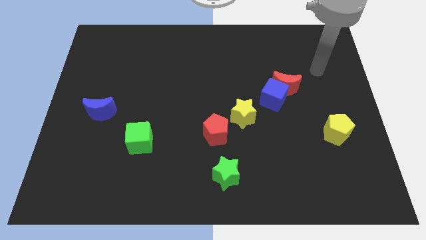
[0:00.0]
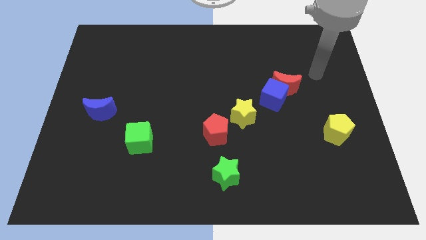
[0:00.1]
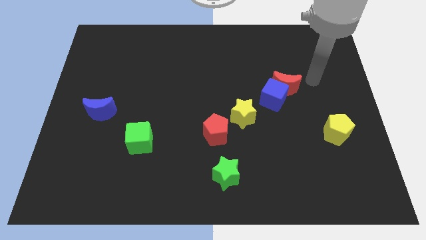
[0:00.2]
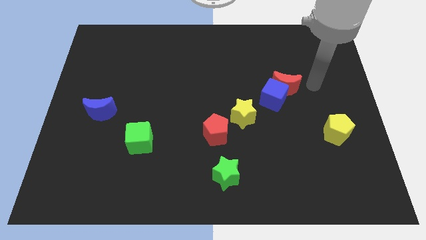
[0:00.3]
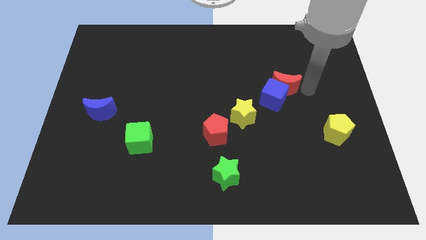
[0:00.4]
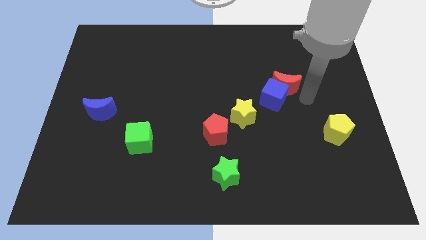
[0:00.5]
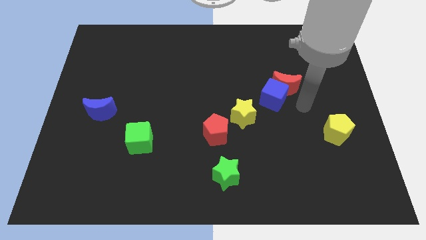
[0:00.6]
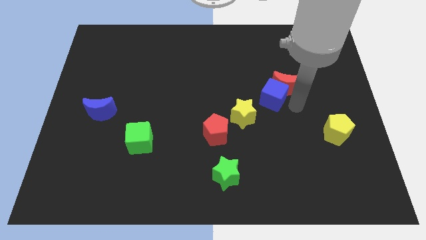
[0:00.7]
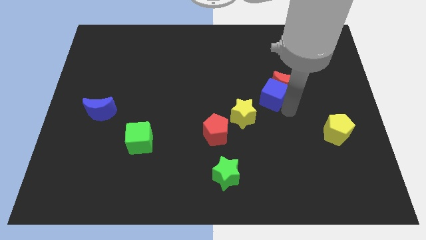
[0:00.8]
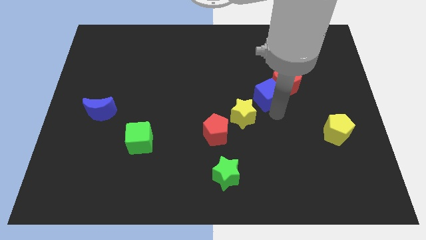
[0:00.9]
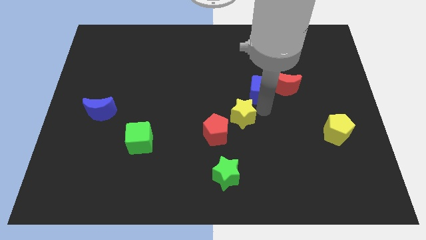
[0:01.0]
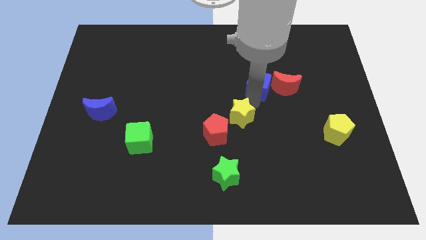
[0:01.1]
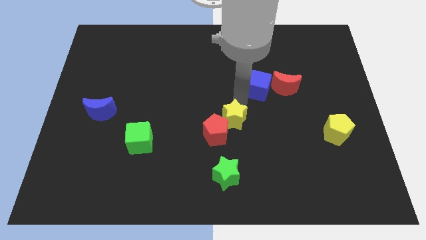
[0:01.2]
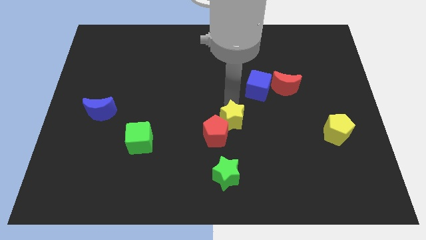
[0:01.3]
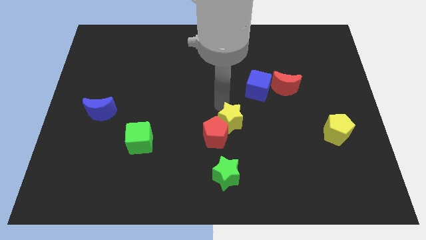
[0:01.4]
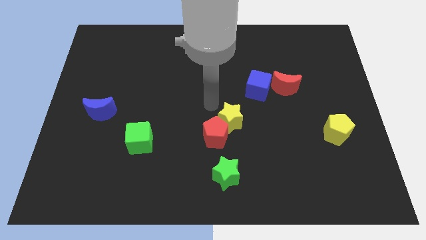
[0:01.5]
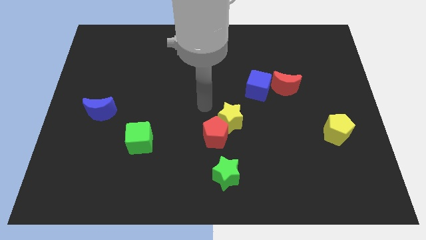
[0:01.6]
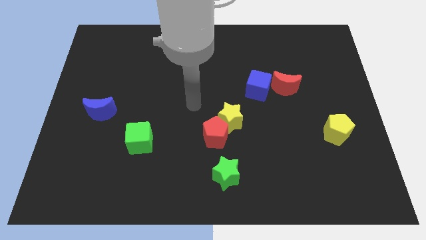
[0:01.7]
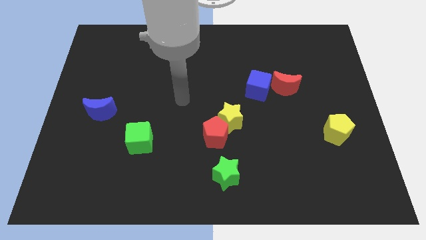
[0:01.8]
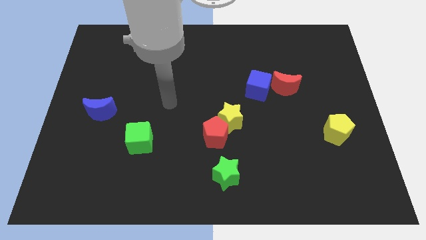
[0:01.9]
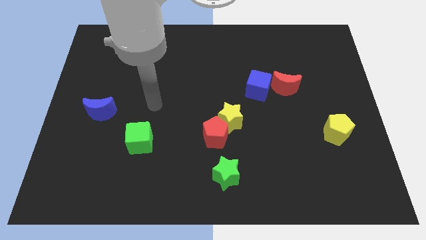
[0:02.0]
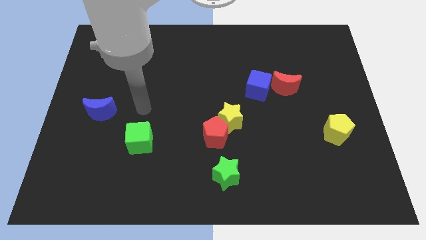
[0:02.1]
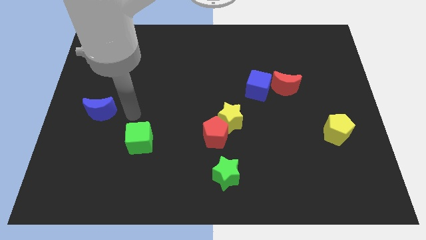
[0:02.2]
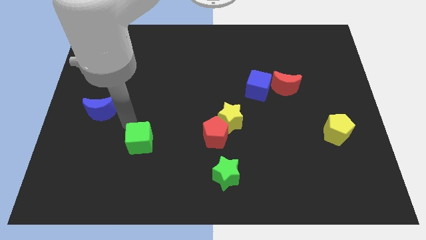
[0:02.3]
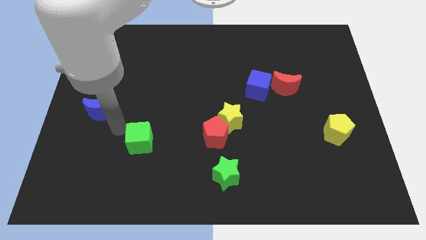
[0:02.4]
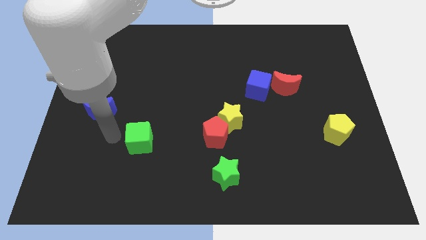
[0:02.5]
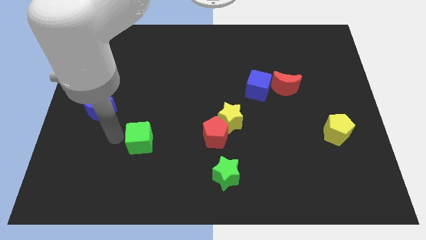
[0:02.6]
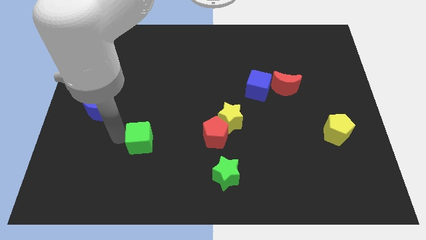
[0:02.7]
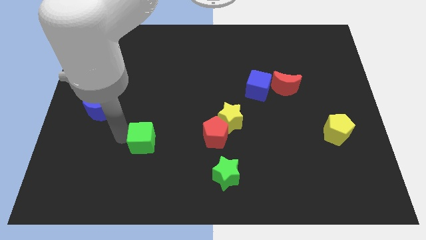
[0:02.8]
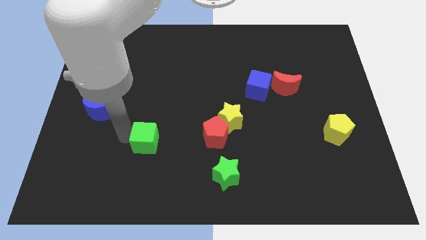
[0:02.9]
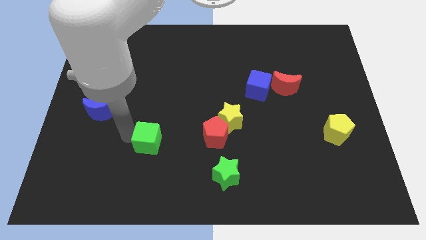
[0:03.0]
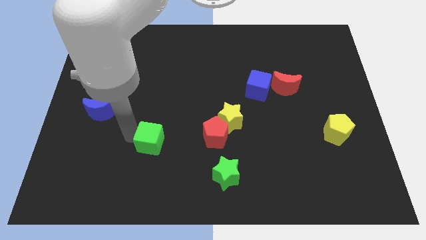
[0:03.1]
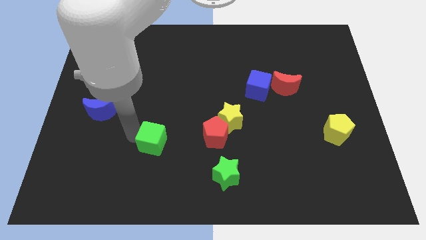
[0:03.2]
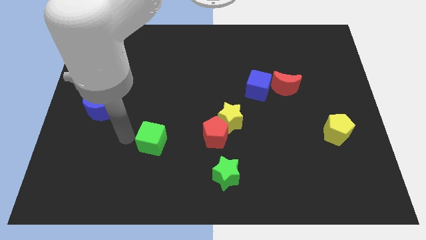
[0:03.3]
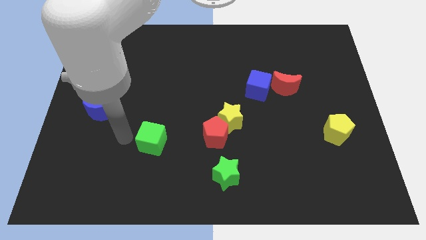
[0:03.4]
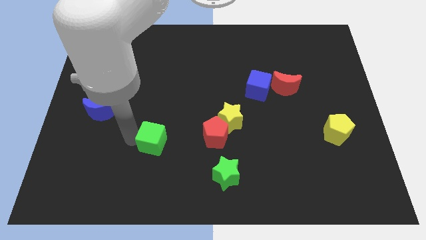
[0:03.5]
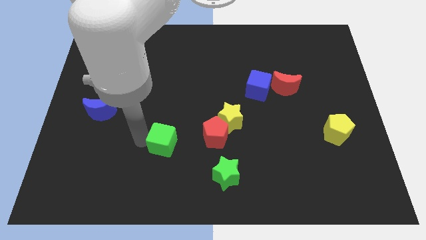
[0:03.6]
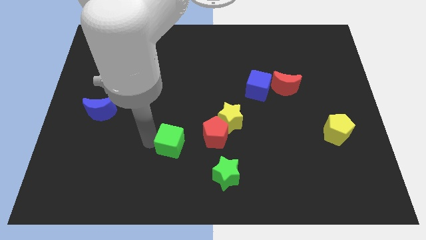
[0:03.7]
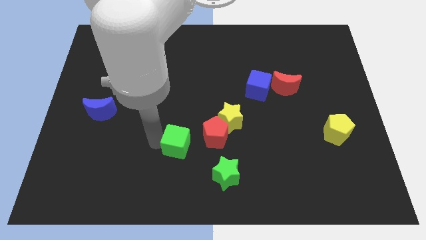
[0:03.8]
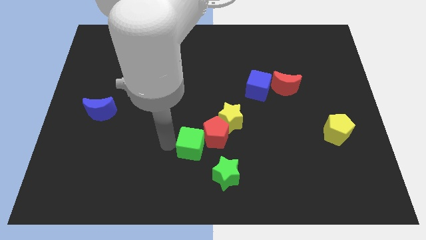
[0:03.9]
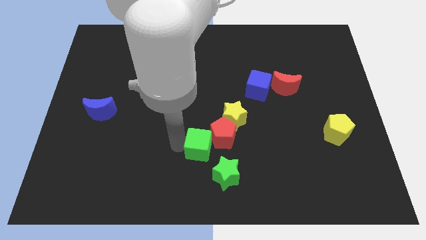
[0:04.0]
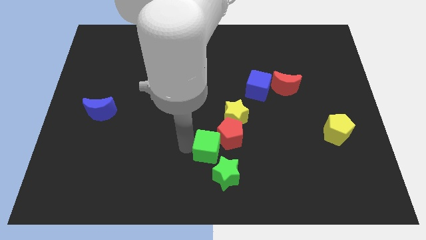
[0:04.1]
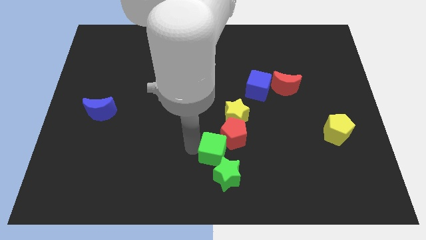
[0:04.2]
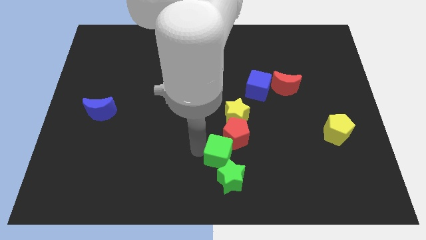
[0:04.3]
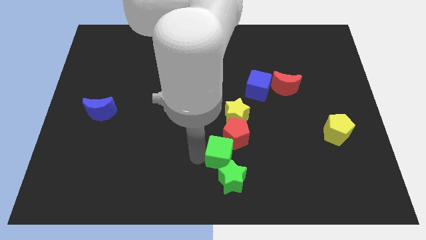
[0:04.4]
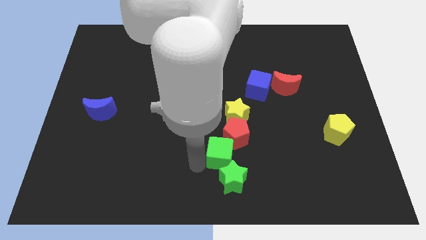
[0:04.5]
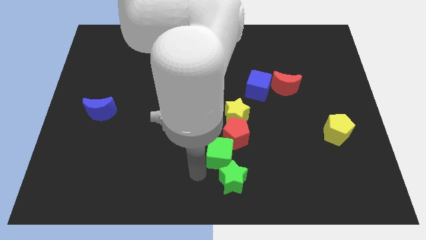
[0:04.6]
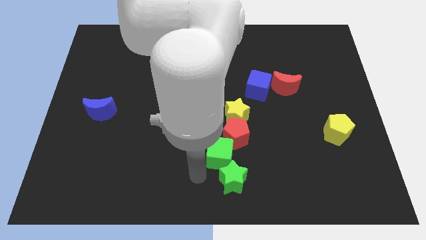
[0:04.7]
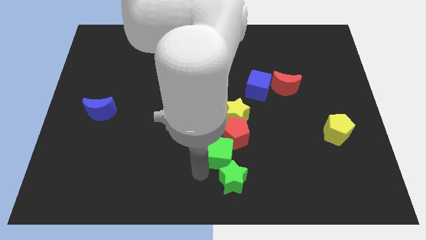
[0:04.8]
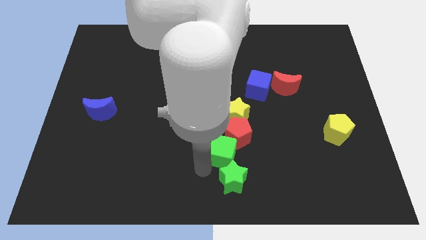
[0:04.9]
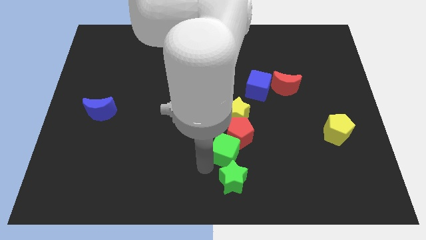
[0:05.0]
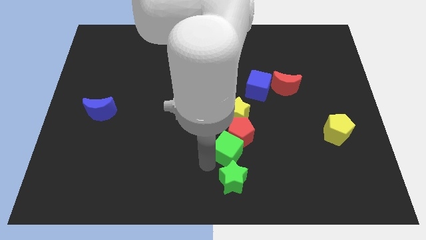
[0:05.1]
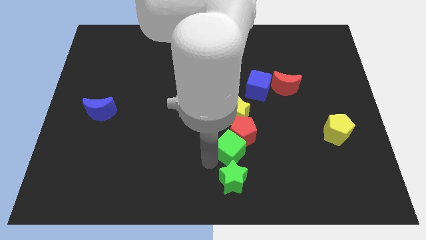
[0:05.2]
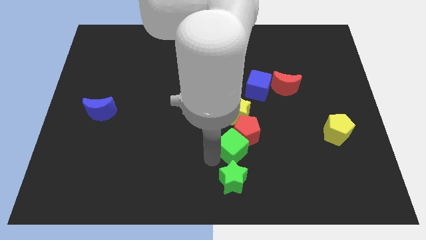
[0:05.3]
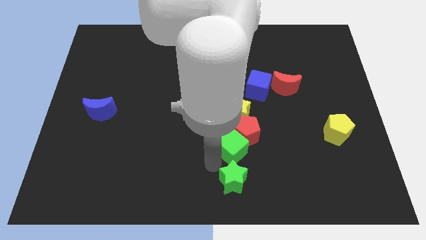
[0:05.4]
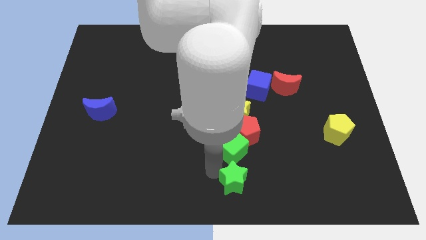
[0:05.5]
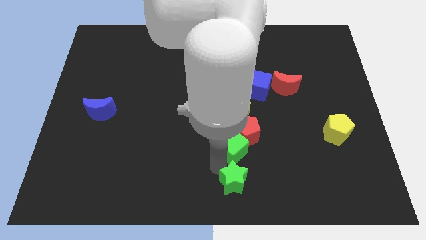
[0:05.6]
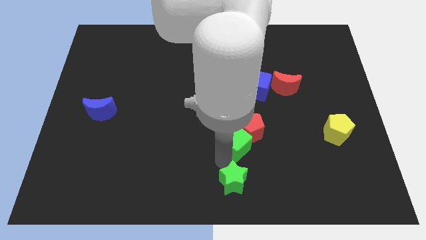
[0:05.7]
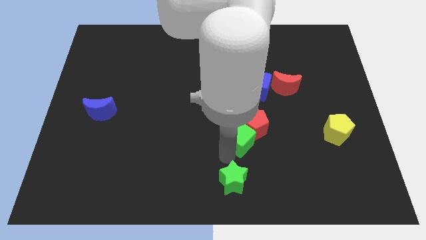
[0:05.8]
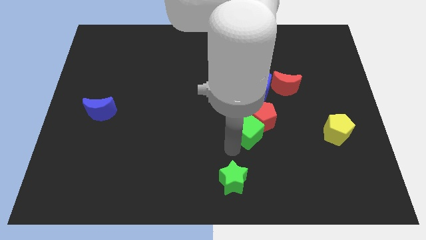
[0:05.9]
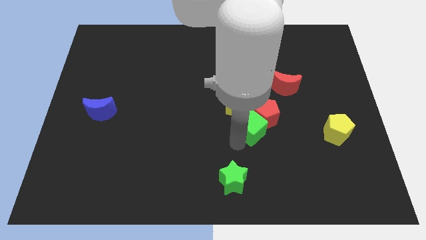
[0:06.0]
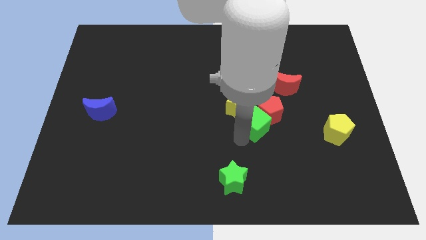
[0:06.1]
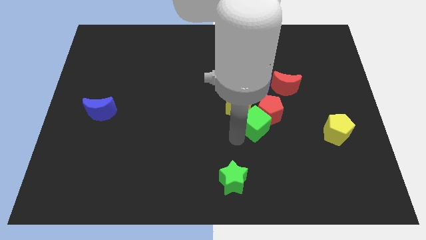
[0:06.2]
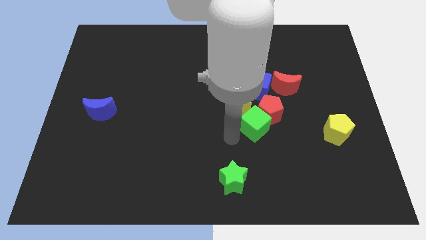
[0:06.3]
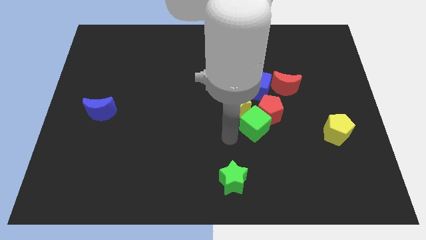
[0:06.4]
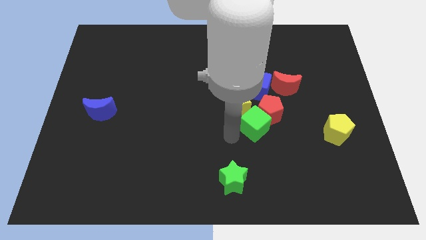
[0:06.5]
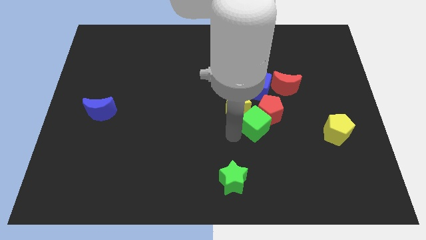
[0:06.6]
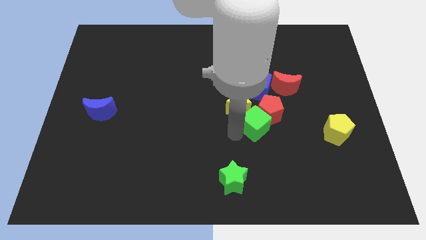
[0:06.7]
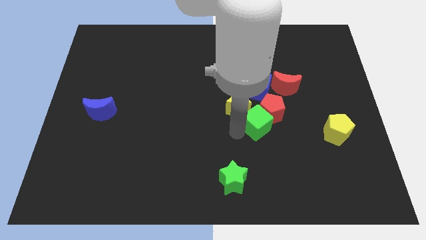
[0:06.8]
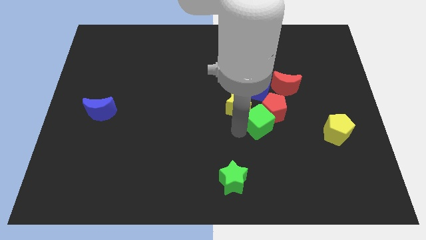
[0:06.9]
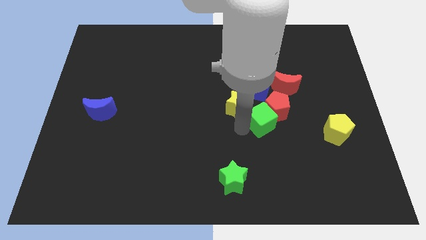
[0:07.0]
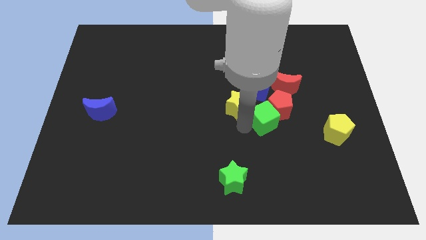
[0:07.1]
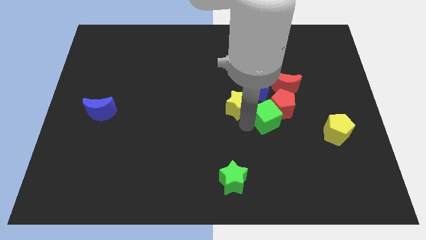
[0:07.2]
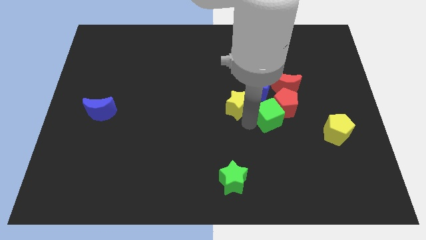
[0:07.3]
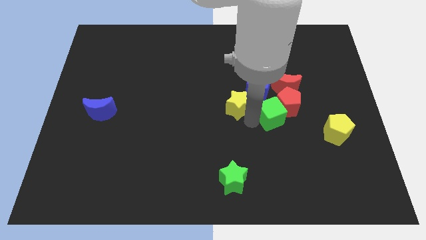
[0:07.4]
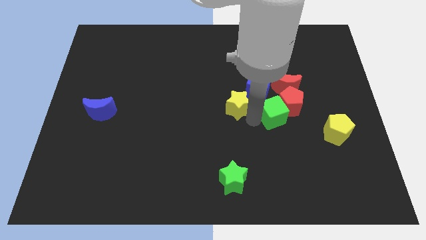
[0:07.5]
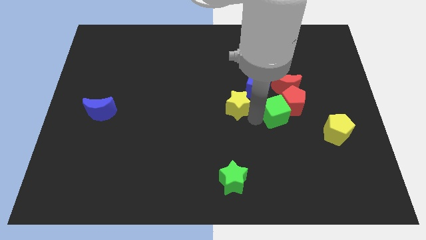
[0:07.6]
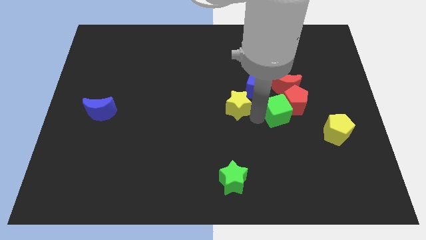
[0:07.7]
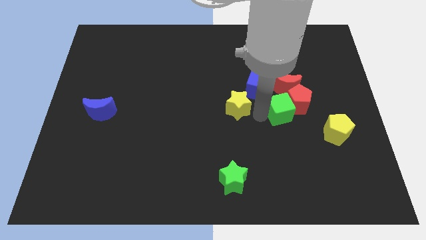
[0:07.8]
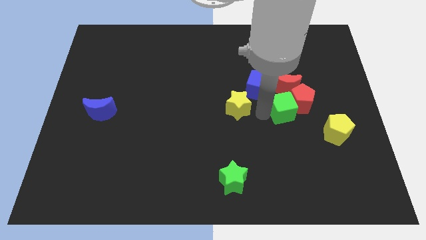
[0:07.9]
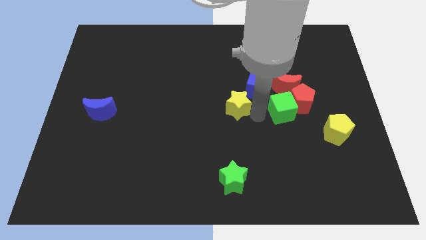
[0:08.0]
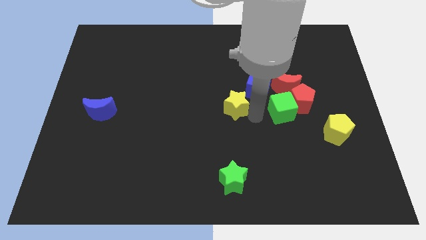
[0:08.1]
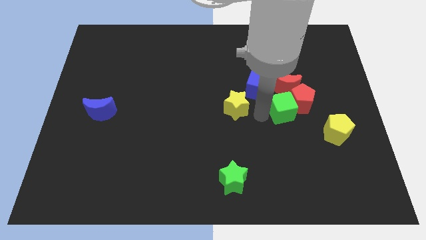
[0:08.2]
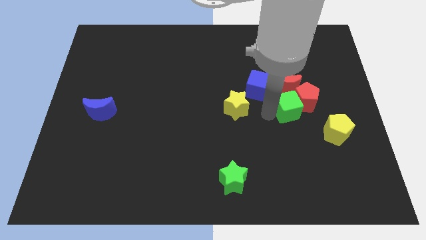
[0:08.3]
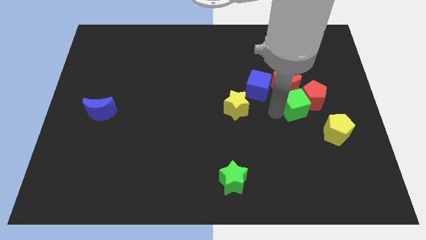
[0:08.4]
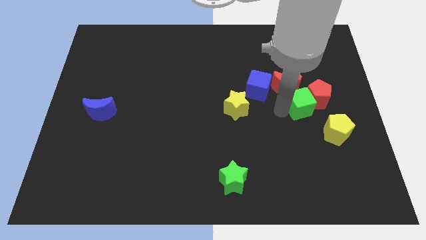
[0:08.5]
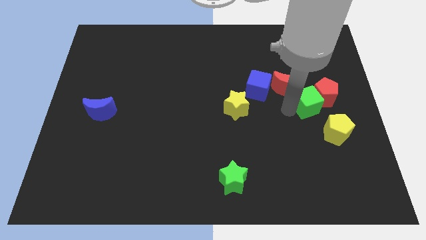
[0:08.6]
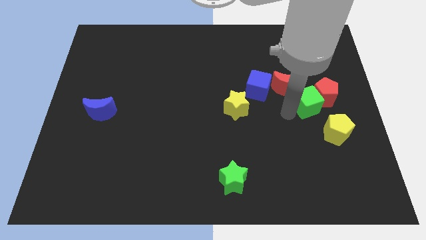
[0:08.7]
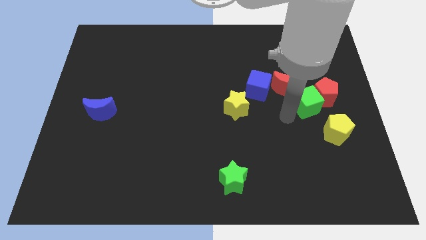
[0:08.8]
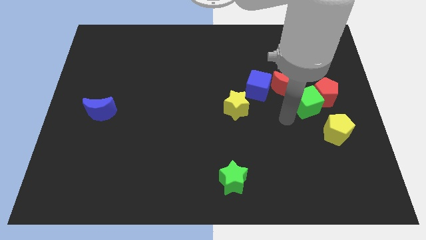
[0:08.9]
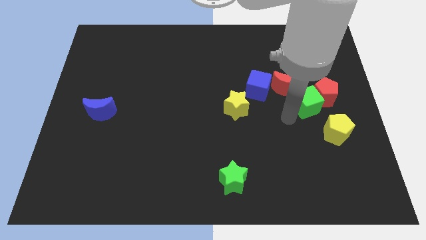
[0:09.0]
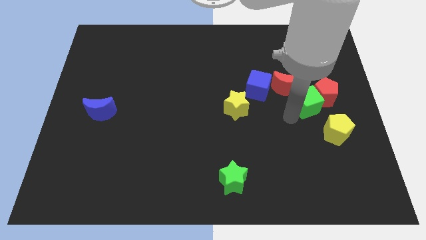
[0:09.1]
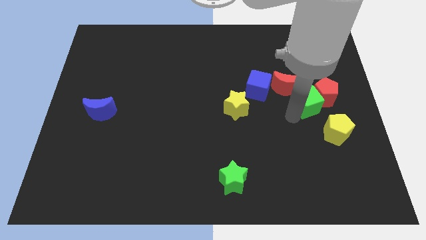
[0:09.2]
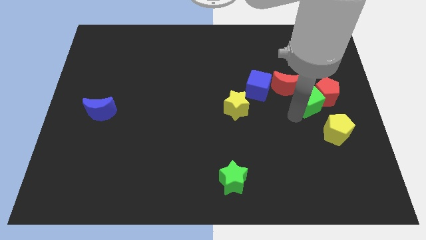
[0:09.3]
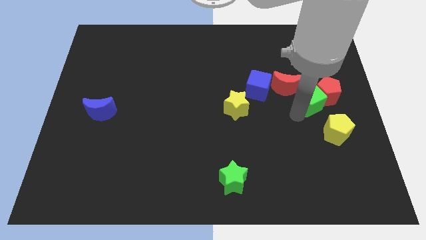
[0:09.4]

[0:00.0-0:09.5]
put the green cube just right of the red moon
